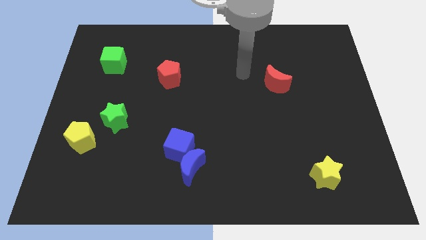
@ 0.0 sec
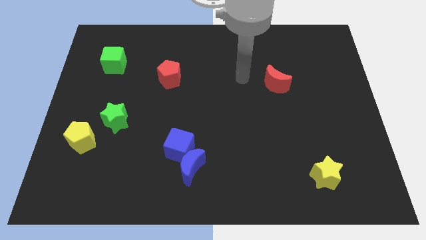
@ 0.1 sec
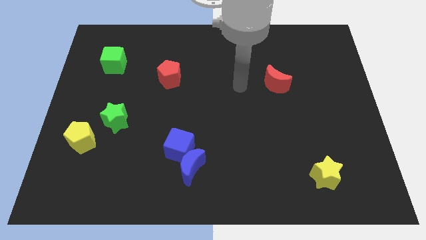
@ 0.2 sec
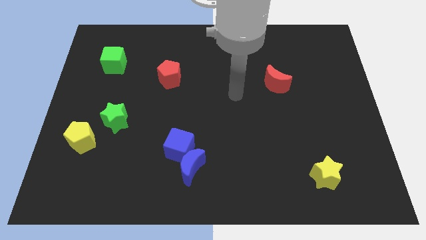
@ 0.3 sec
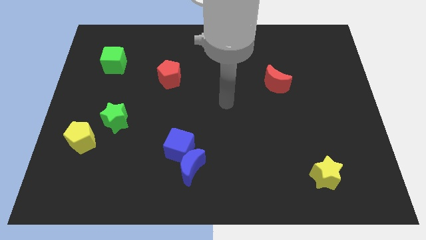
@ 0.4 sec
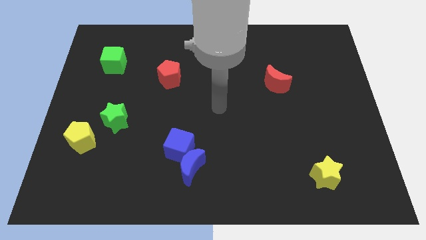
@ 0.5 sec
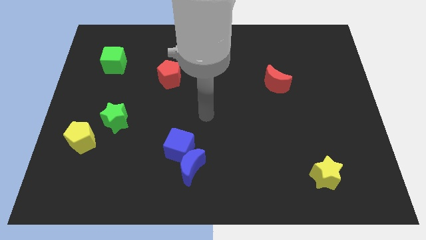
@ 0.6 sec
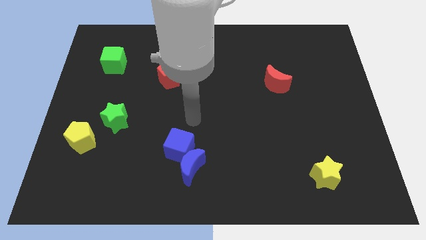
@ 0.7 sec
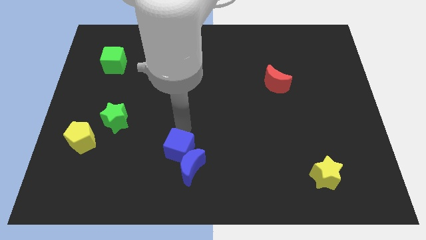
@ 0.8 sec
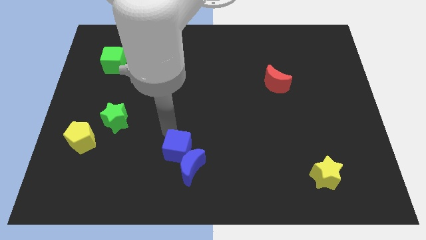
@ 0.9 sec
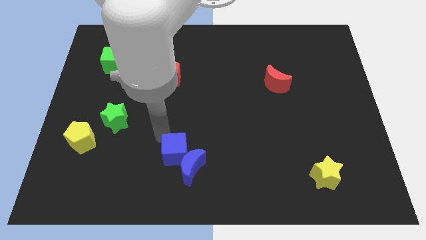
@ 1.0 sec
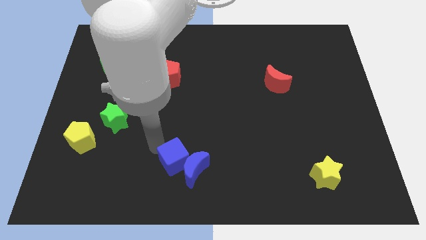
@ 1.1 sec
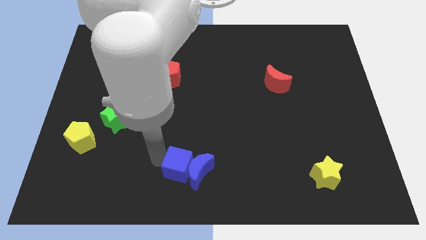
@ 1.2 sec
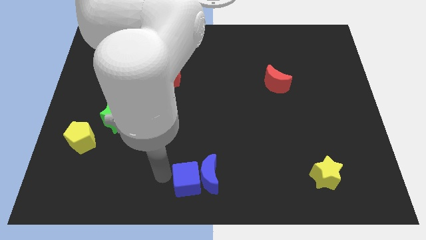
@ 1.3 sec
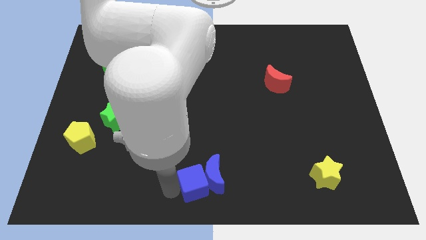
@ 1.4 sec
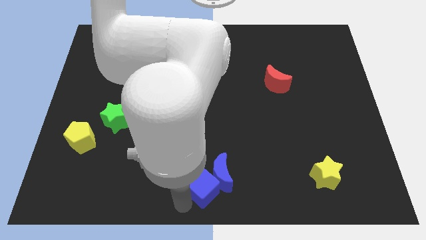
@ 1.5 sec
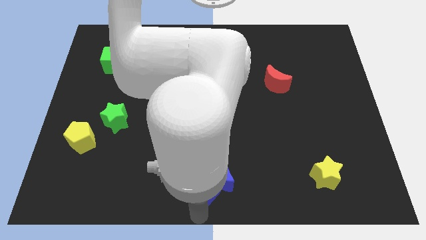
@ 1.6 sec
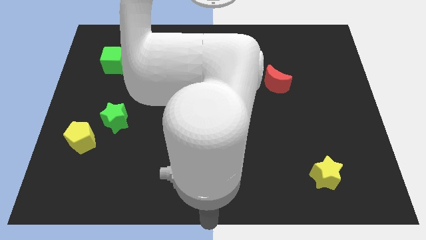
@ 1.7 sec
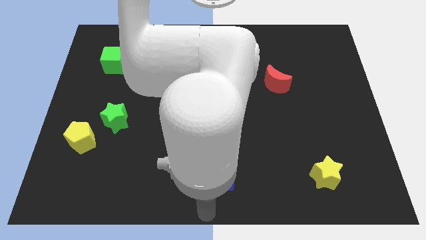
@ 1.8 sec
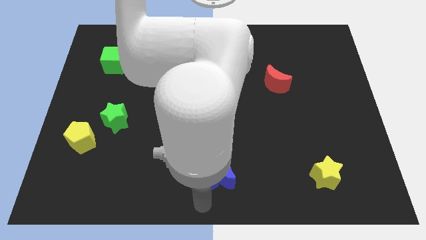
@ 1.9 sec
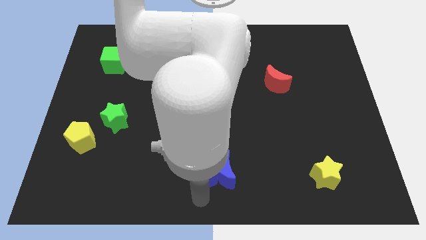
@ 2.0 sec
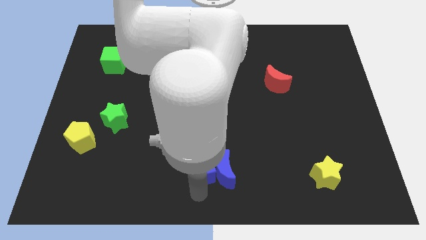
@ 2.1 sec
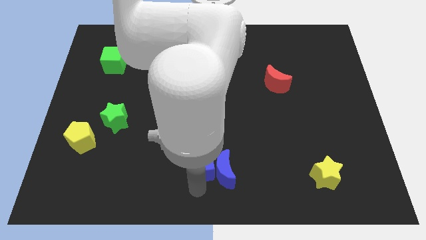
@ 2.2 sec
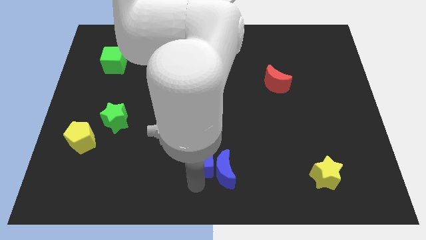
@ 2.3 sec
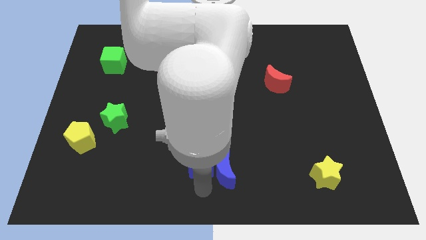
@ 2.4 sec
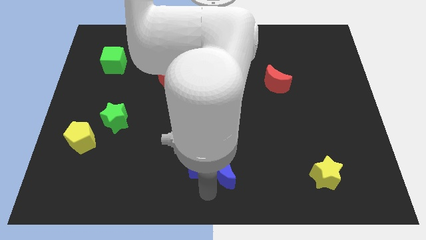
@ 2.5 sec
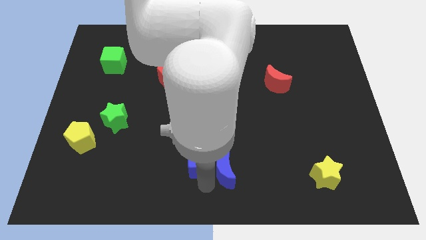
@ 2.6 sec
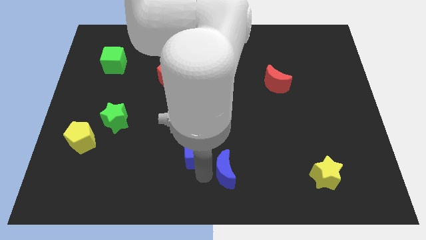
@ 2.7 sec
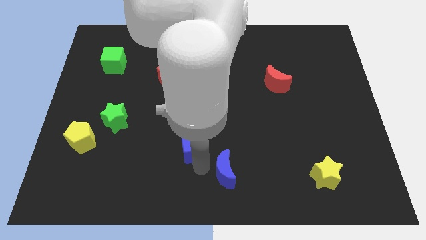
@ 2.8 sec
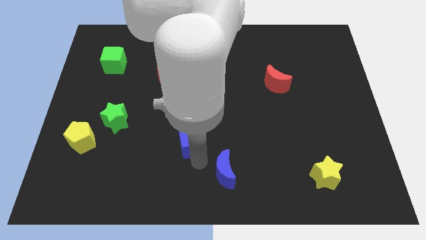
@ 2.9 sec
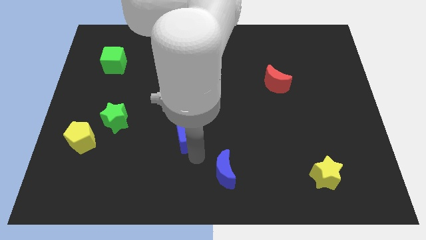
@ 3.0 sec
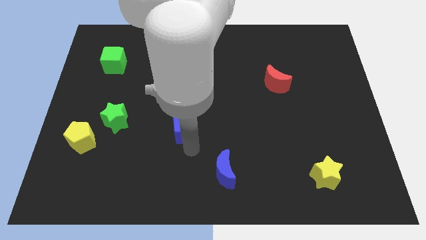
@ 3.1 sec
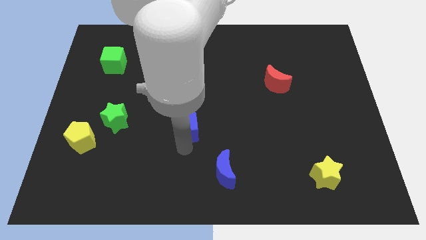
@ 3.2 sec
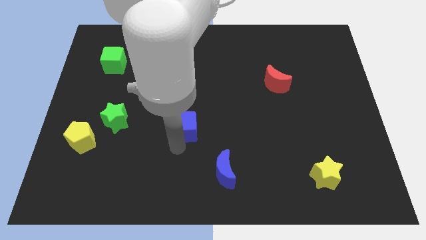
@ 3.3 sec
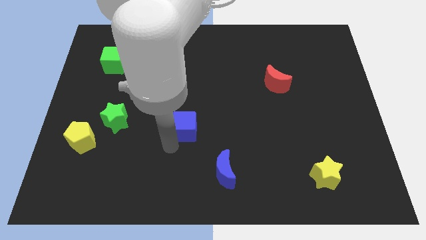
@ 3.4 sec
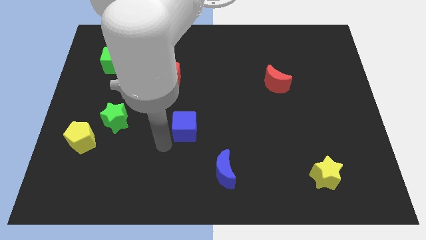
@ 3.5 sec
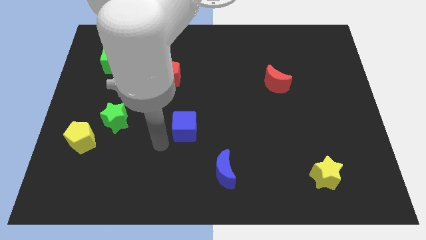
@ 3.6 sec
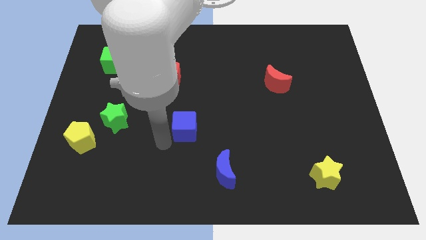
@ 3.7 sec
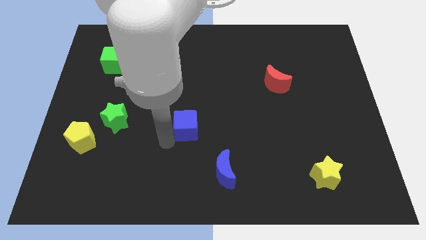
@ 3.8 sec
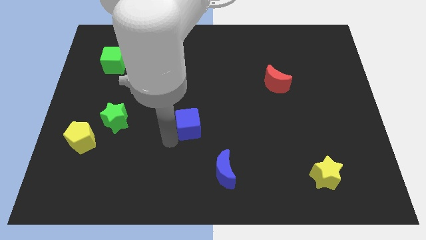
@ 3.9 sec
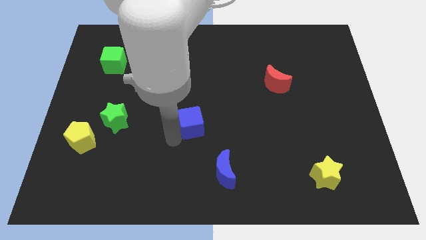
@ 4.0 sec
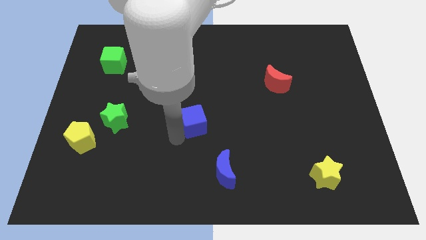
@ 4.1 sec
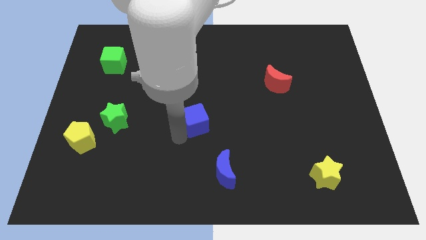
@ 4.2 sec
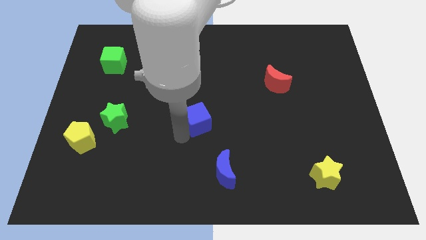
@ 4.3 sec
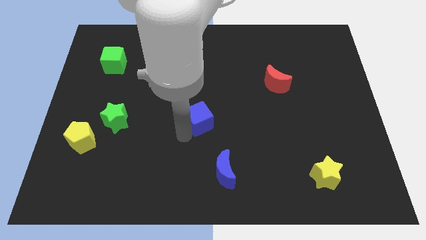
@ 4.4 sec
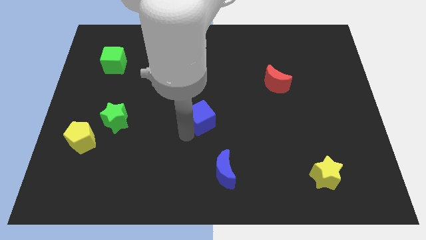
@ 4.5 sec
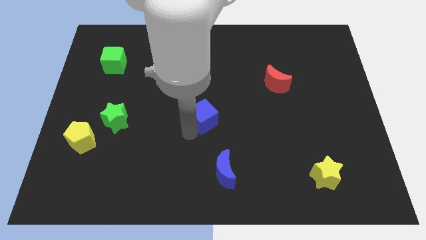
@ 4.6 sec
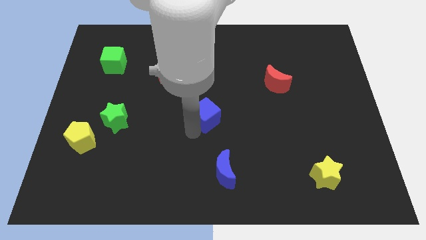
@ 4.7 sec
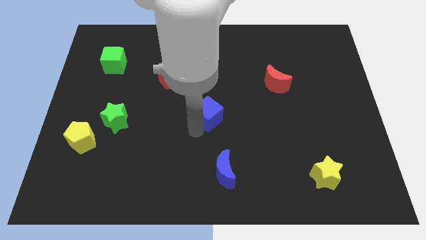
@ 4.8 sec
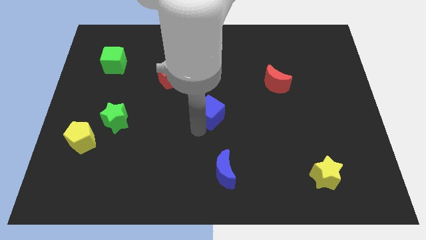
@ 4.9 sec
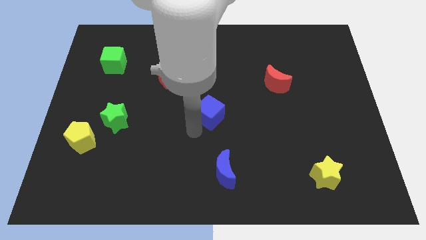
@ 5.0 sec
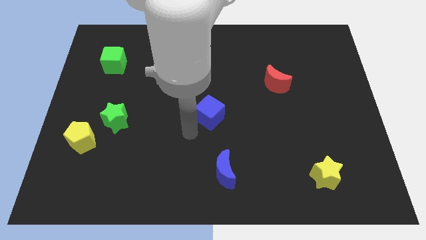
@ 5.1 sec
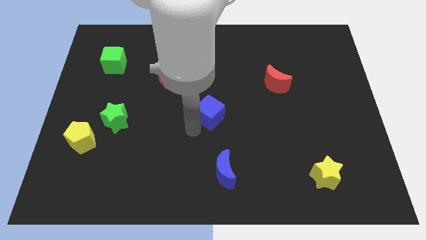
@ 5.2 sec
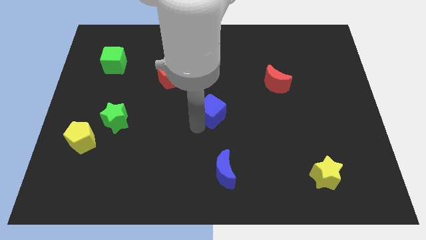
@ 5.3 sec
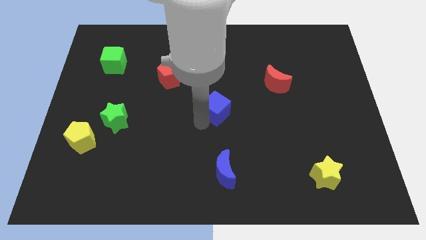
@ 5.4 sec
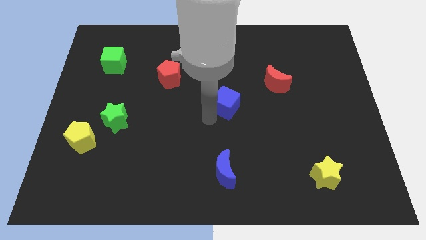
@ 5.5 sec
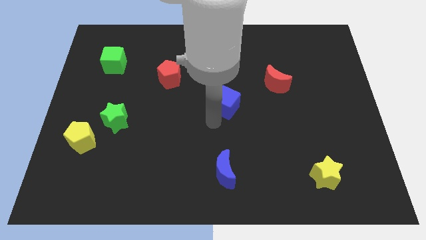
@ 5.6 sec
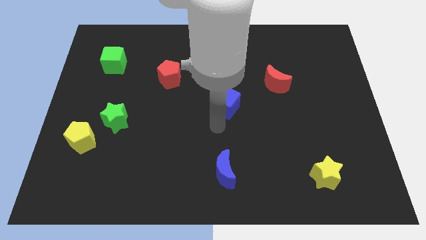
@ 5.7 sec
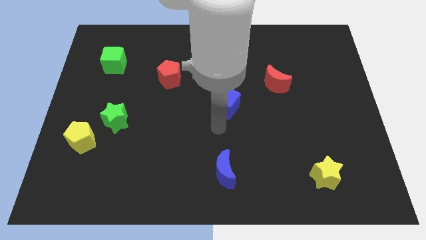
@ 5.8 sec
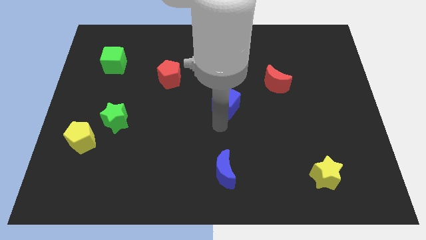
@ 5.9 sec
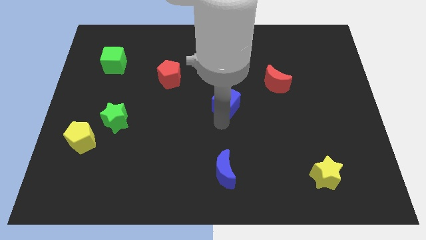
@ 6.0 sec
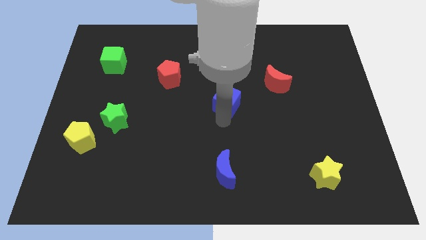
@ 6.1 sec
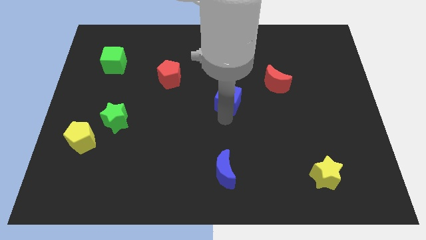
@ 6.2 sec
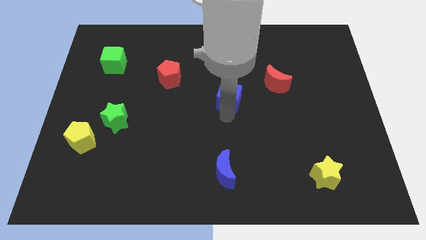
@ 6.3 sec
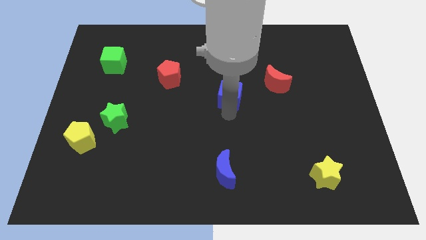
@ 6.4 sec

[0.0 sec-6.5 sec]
move the blue cube to the left of the red moon
